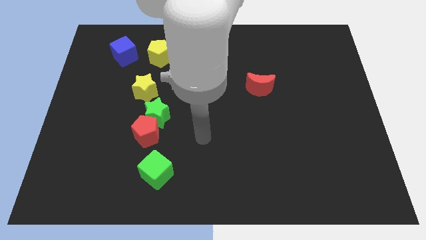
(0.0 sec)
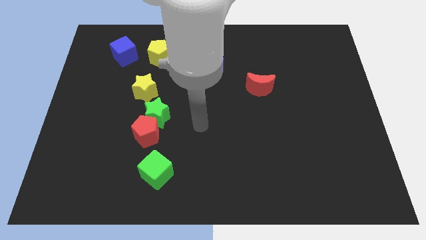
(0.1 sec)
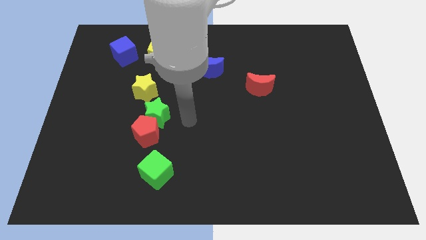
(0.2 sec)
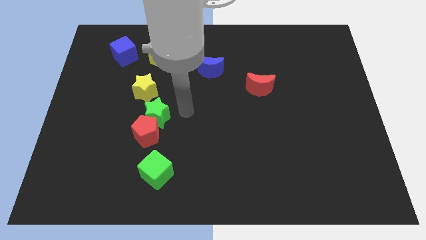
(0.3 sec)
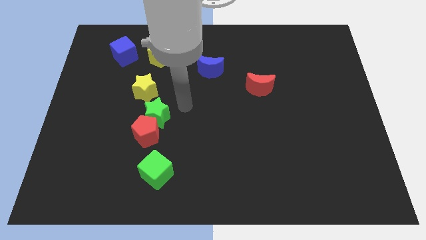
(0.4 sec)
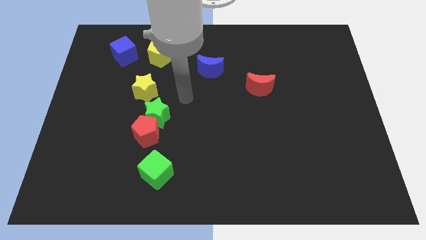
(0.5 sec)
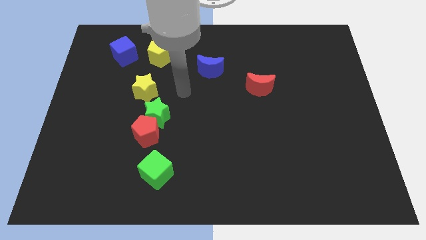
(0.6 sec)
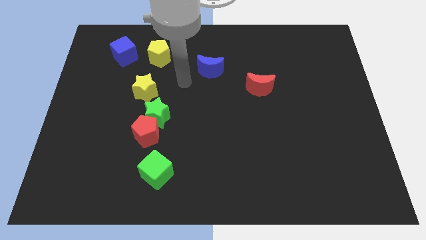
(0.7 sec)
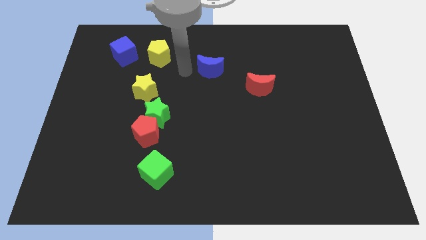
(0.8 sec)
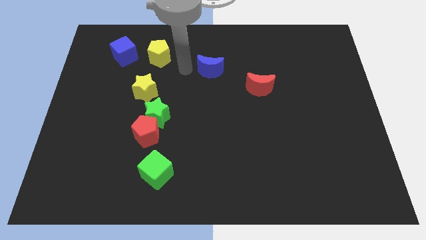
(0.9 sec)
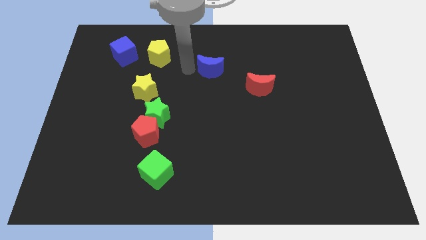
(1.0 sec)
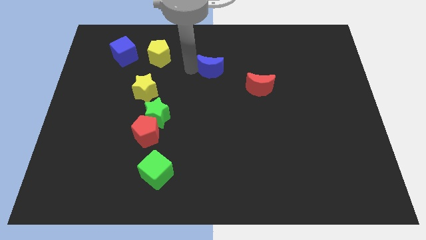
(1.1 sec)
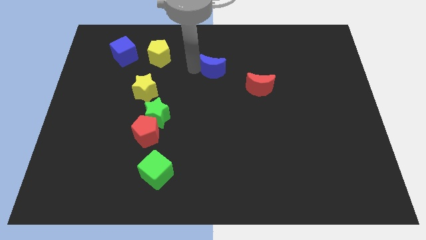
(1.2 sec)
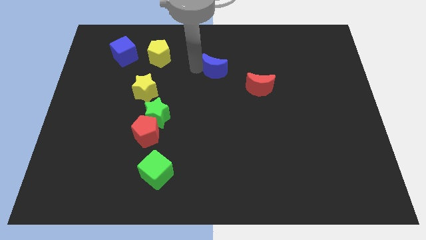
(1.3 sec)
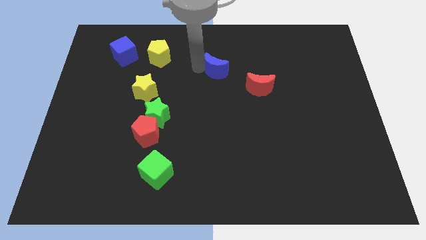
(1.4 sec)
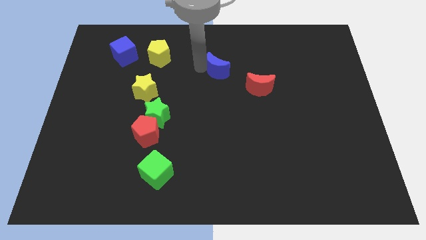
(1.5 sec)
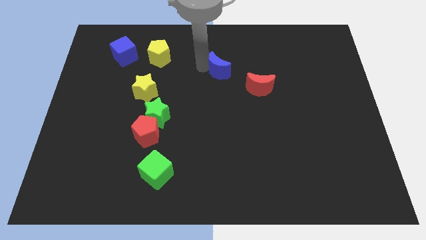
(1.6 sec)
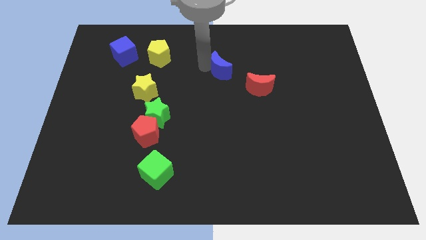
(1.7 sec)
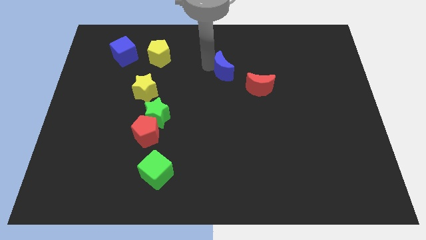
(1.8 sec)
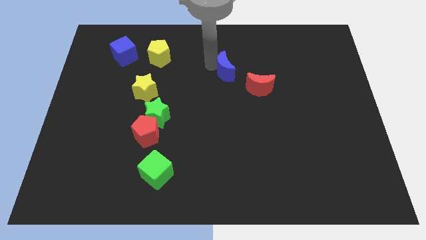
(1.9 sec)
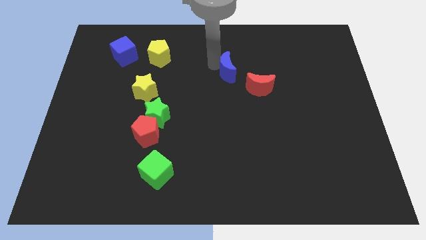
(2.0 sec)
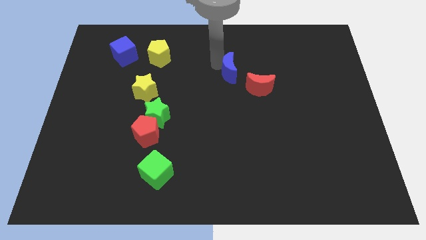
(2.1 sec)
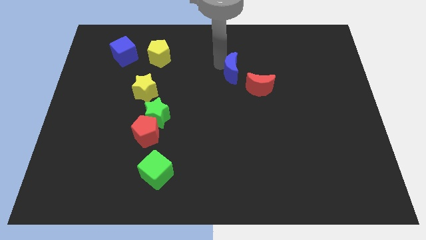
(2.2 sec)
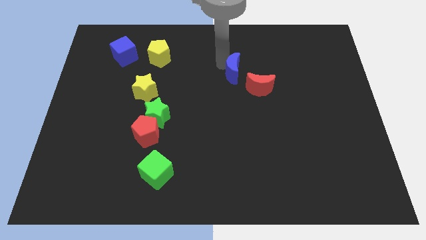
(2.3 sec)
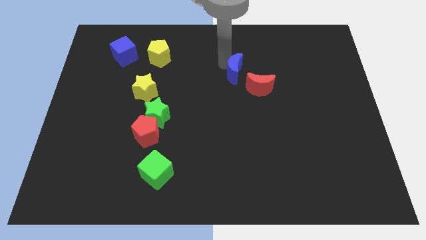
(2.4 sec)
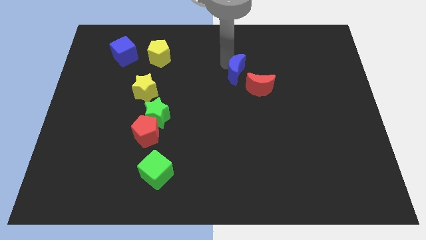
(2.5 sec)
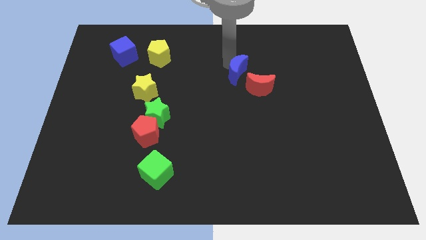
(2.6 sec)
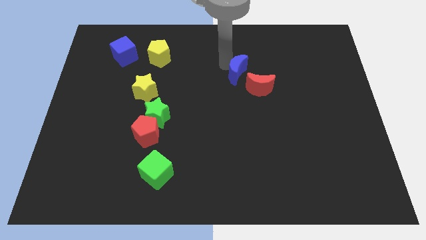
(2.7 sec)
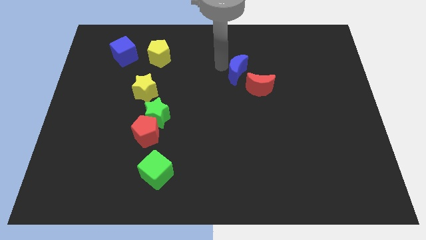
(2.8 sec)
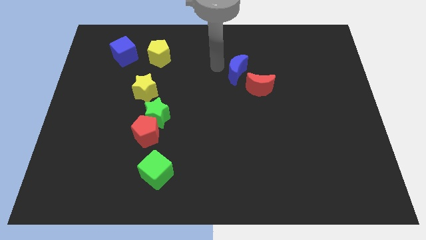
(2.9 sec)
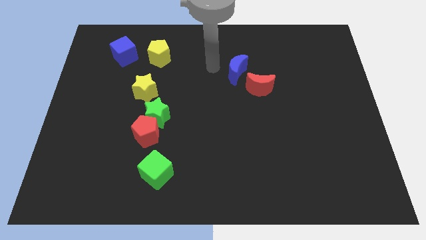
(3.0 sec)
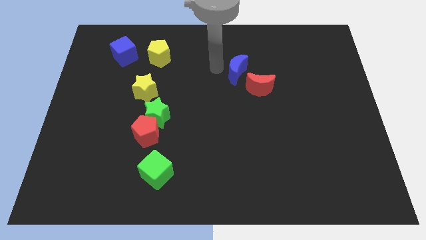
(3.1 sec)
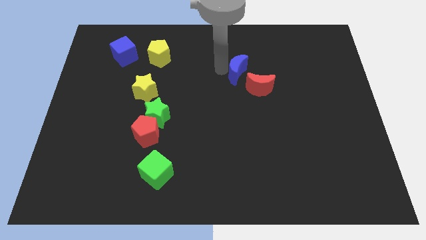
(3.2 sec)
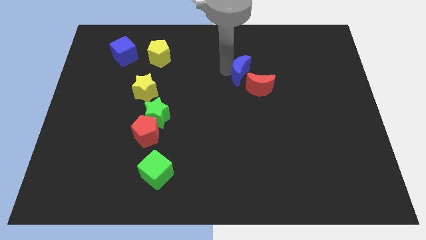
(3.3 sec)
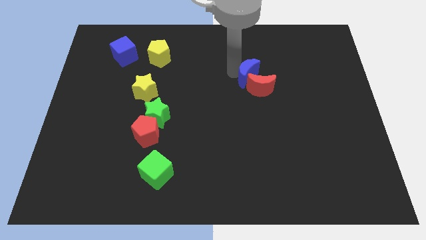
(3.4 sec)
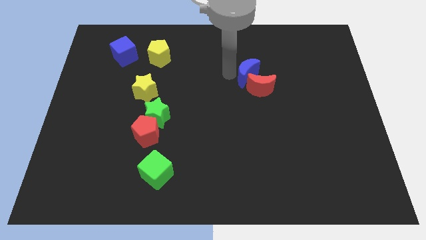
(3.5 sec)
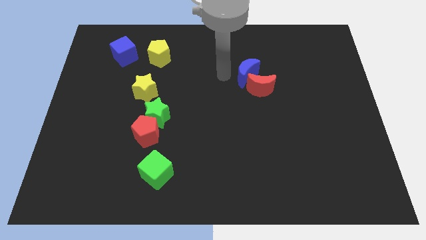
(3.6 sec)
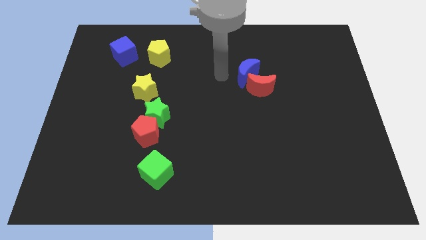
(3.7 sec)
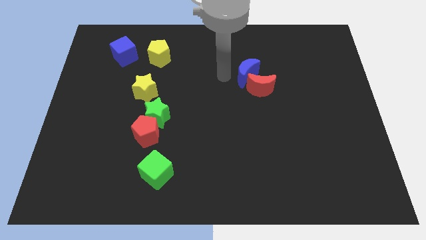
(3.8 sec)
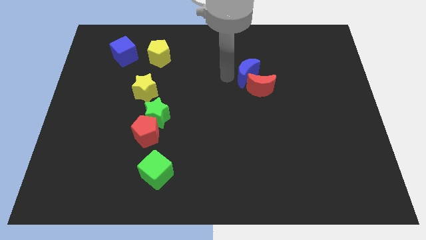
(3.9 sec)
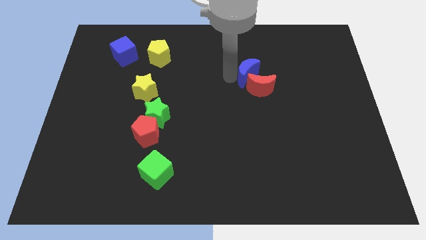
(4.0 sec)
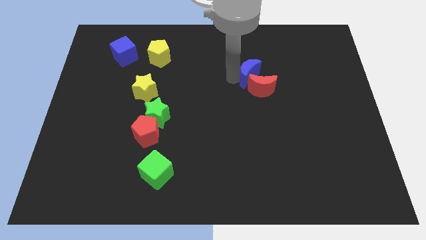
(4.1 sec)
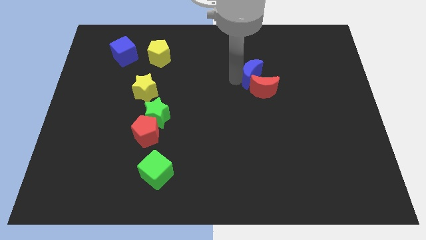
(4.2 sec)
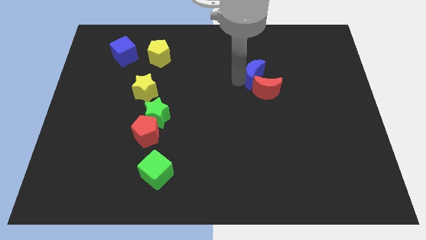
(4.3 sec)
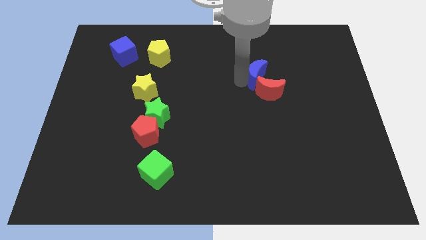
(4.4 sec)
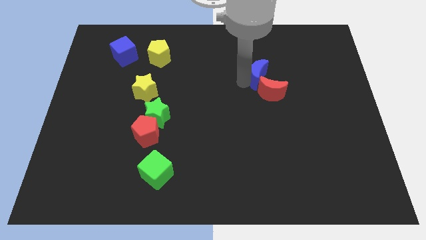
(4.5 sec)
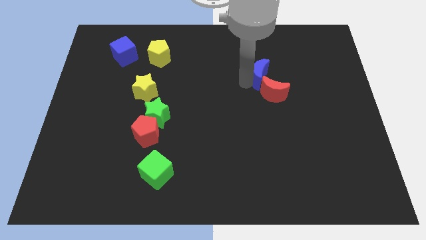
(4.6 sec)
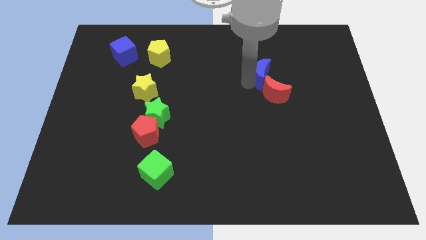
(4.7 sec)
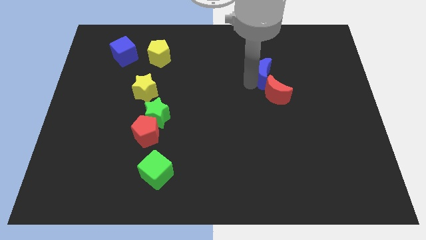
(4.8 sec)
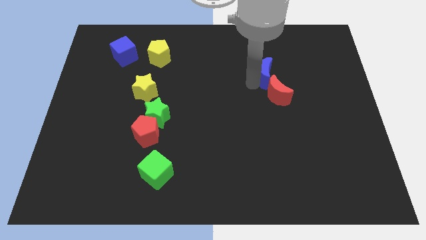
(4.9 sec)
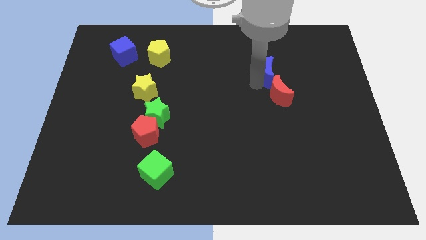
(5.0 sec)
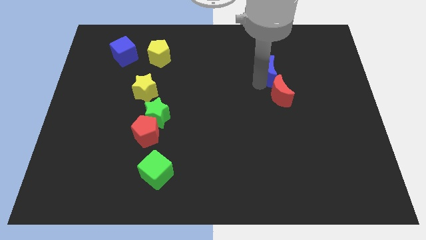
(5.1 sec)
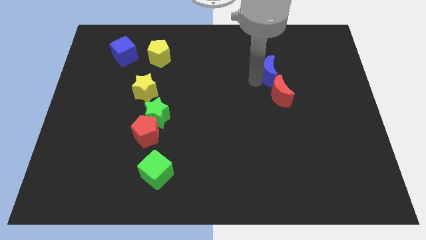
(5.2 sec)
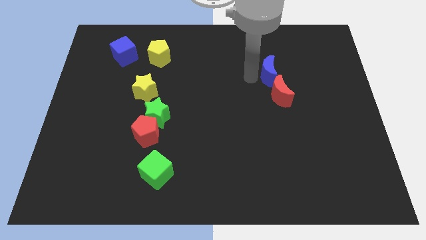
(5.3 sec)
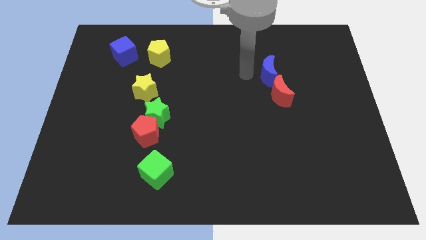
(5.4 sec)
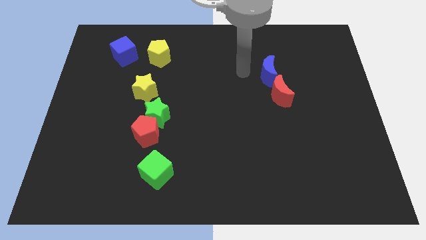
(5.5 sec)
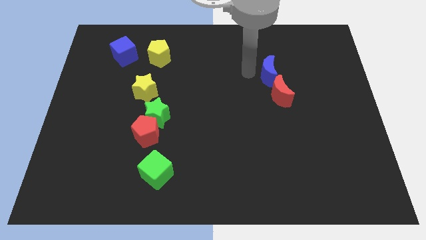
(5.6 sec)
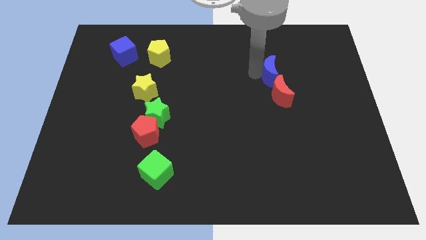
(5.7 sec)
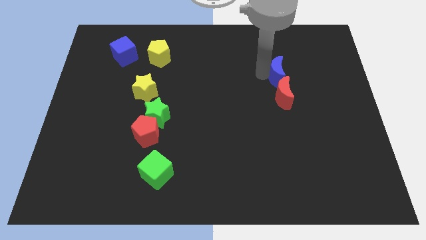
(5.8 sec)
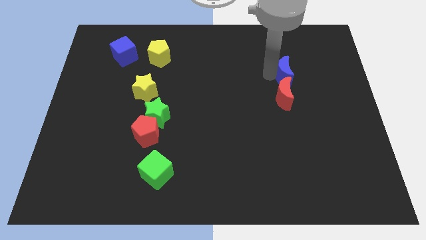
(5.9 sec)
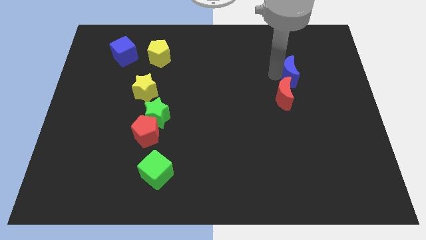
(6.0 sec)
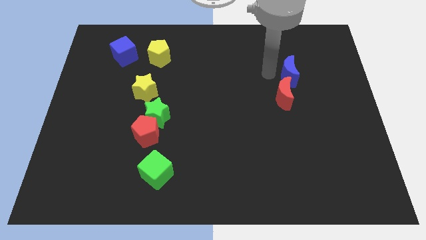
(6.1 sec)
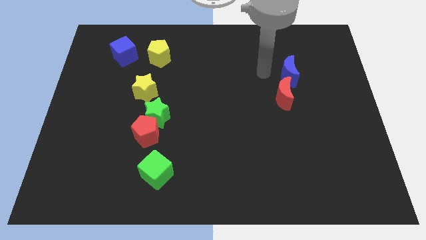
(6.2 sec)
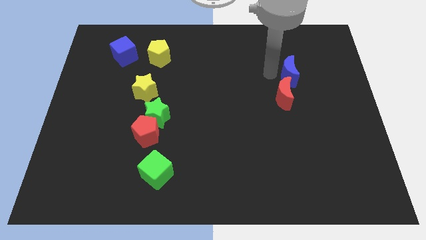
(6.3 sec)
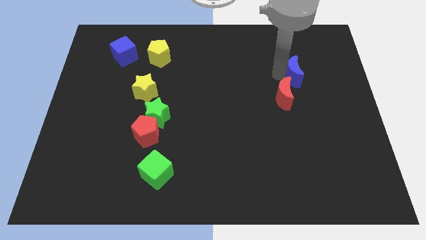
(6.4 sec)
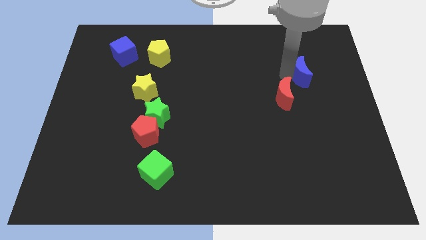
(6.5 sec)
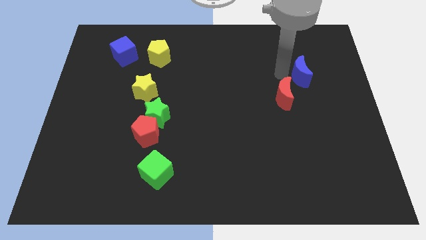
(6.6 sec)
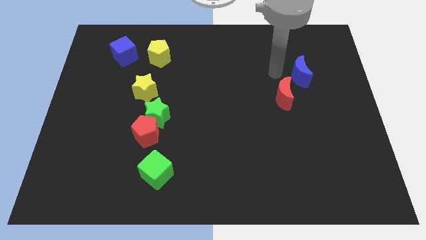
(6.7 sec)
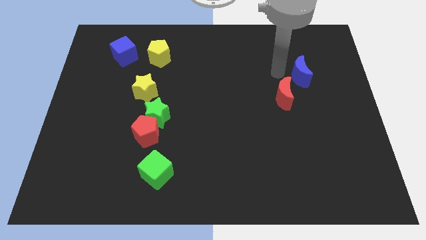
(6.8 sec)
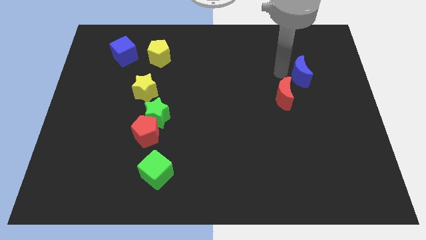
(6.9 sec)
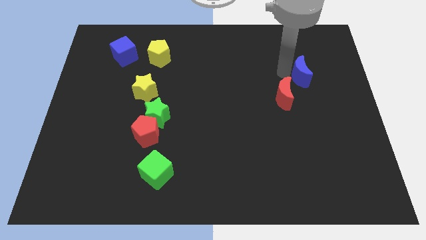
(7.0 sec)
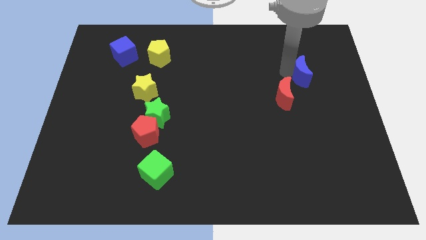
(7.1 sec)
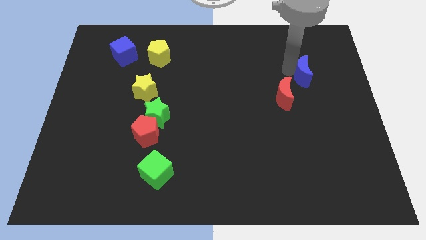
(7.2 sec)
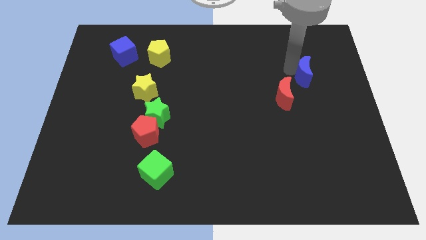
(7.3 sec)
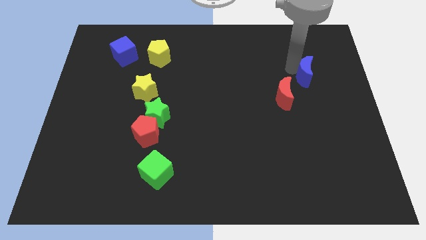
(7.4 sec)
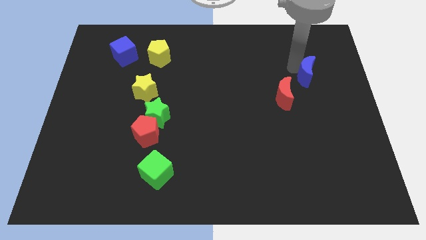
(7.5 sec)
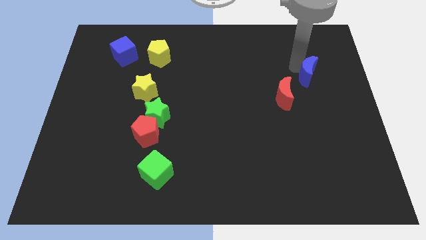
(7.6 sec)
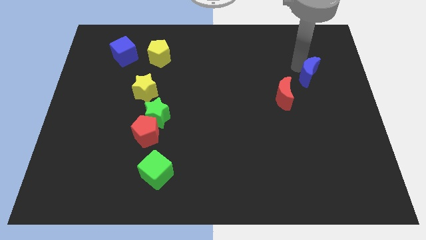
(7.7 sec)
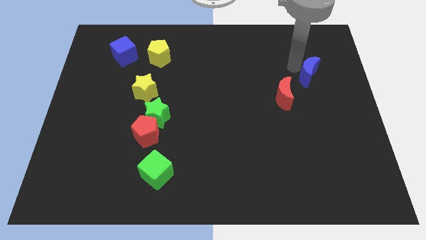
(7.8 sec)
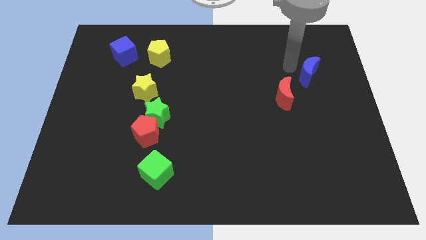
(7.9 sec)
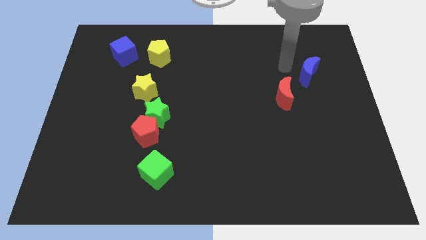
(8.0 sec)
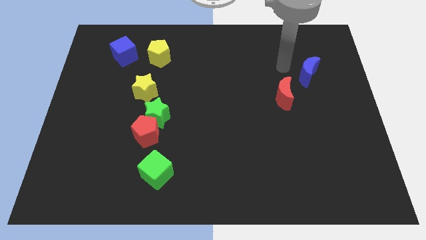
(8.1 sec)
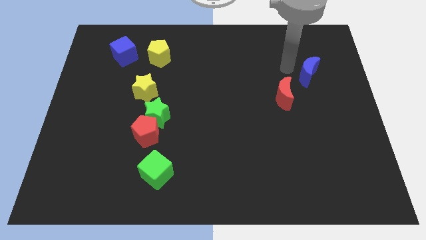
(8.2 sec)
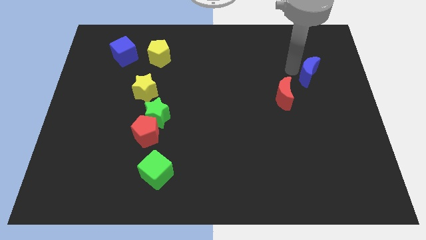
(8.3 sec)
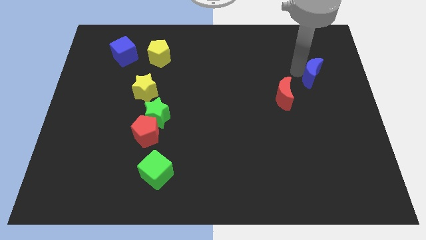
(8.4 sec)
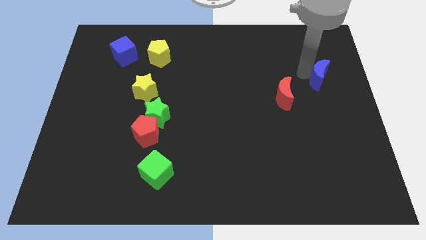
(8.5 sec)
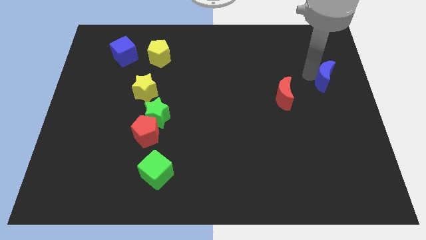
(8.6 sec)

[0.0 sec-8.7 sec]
put the blue moon to the right side
